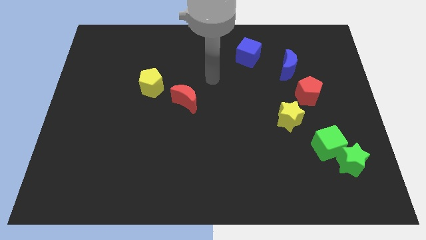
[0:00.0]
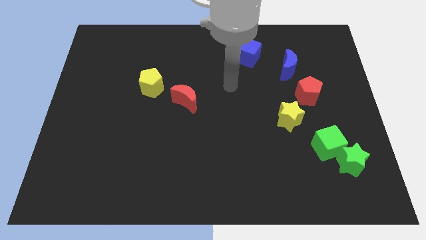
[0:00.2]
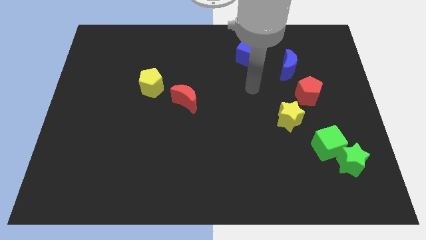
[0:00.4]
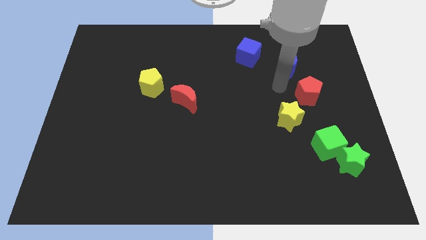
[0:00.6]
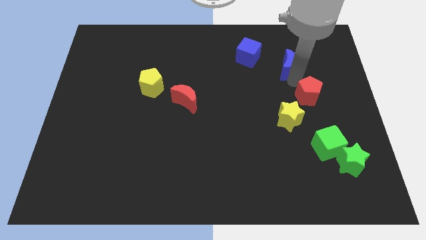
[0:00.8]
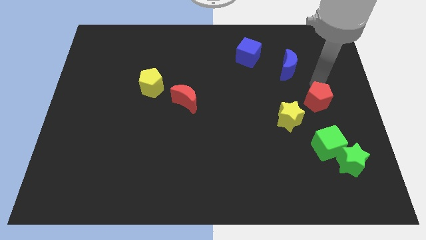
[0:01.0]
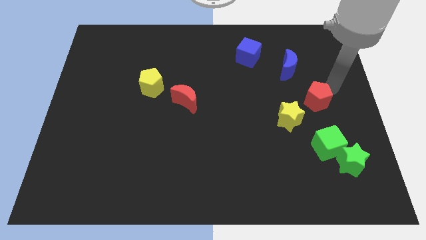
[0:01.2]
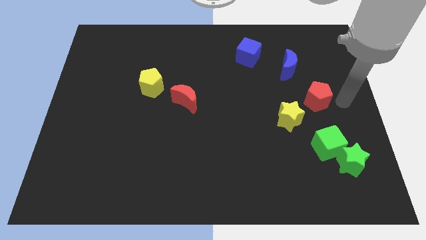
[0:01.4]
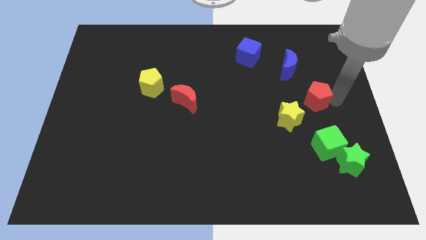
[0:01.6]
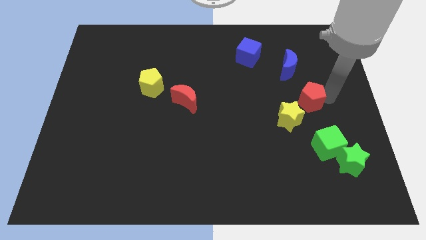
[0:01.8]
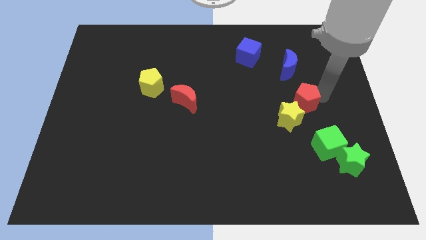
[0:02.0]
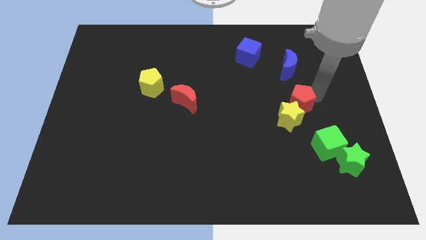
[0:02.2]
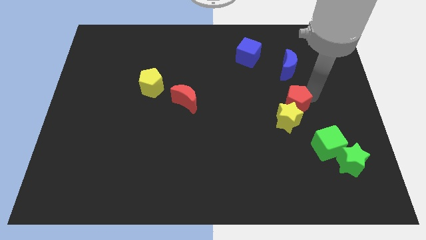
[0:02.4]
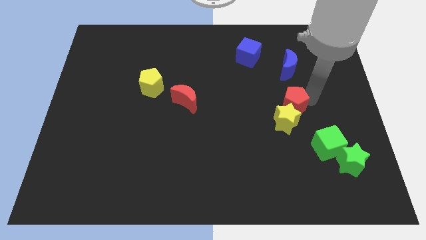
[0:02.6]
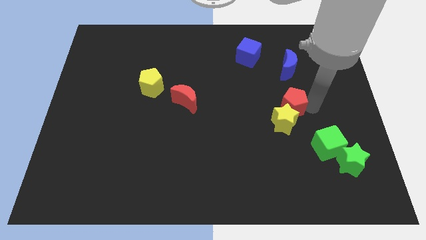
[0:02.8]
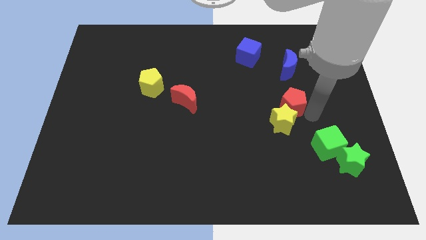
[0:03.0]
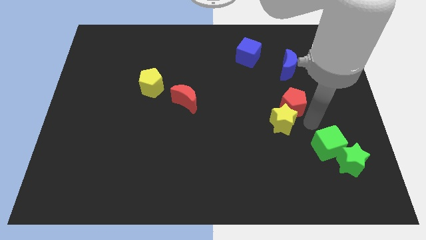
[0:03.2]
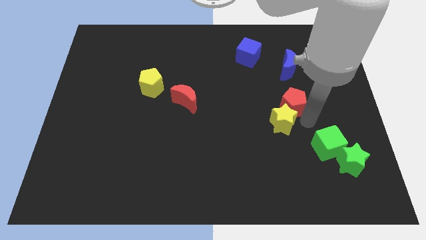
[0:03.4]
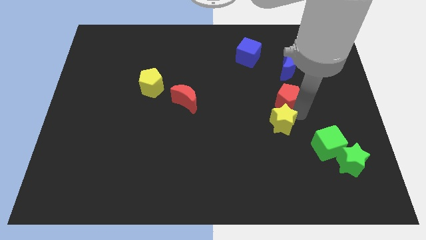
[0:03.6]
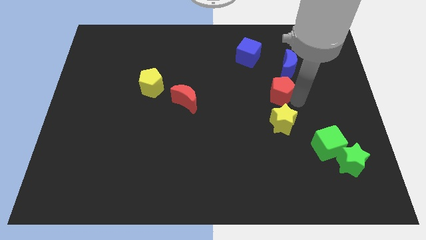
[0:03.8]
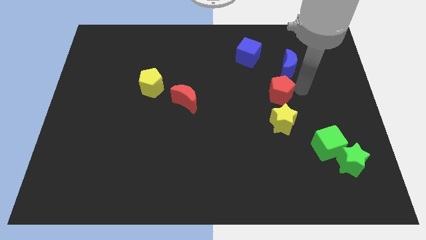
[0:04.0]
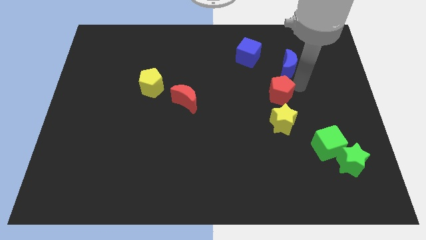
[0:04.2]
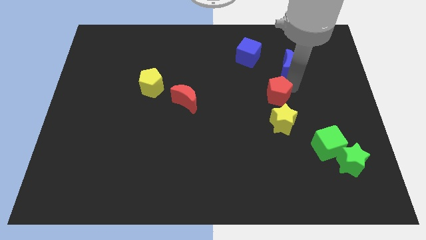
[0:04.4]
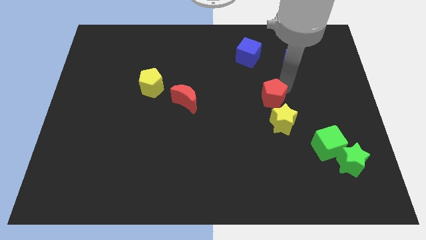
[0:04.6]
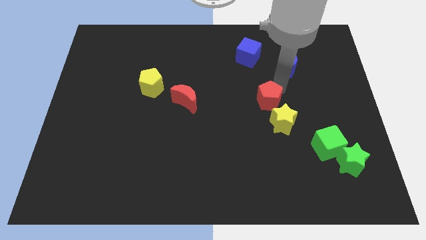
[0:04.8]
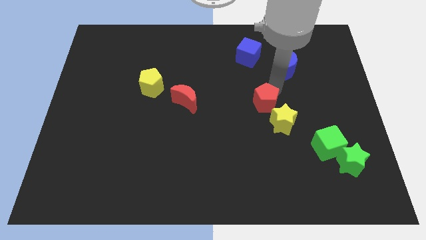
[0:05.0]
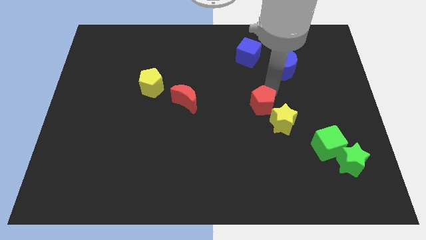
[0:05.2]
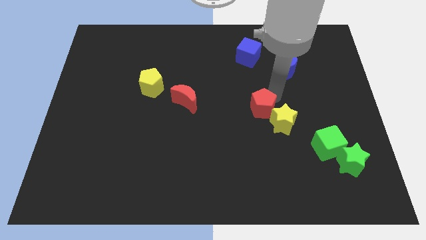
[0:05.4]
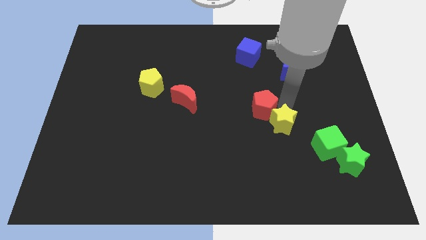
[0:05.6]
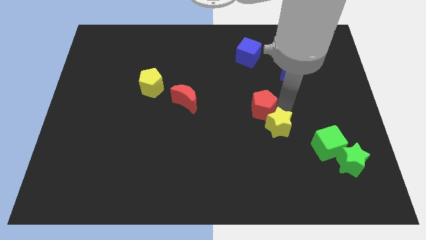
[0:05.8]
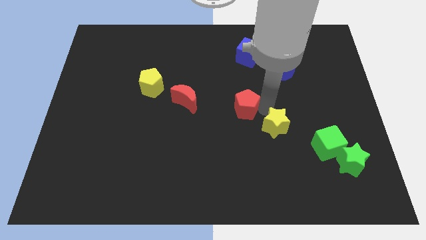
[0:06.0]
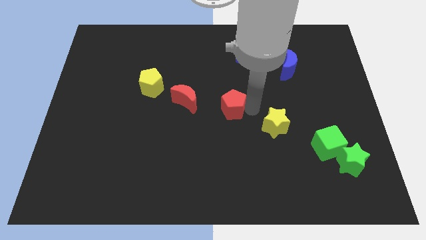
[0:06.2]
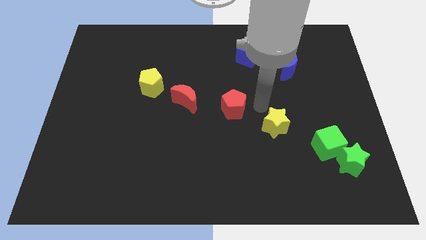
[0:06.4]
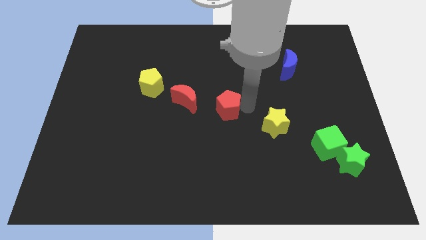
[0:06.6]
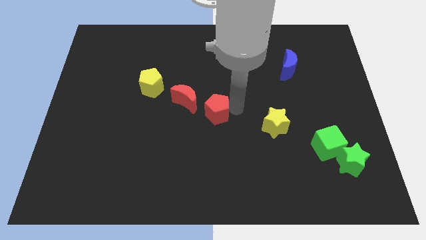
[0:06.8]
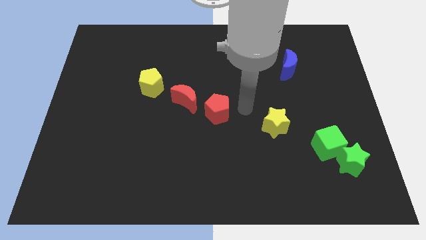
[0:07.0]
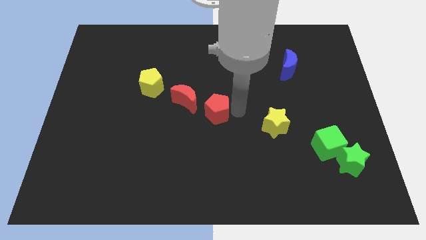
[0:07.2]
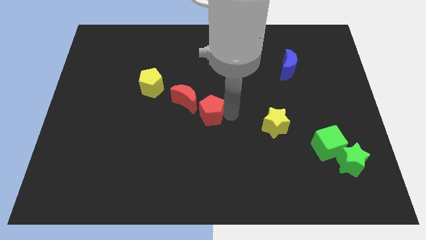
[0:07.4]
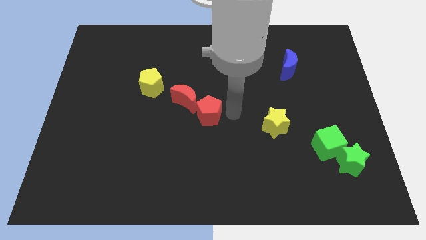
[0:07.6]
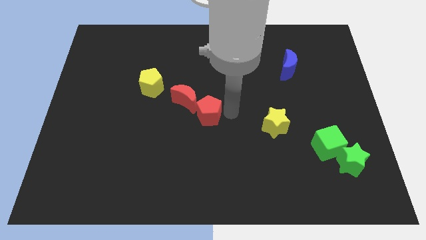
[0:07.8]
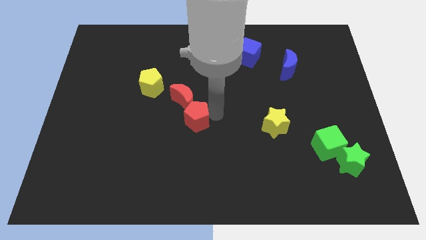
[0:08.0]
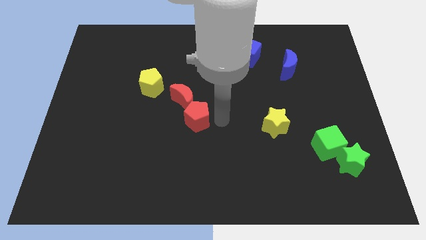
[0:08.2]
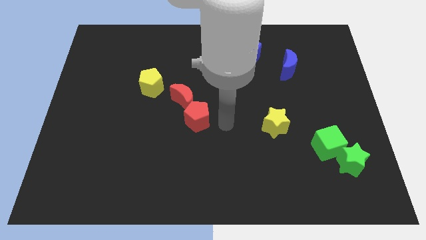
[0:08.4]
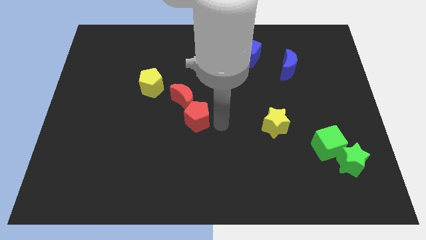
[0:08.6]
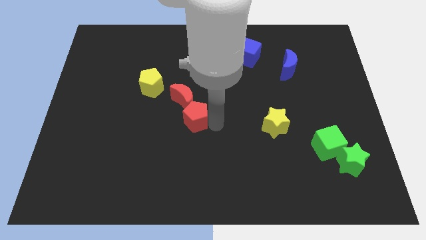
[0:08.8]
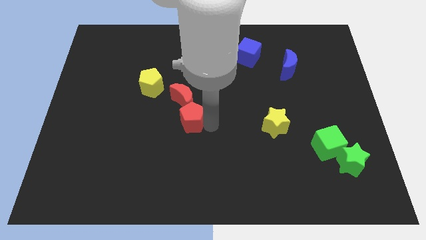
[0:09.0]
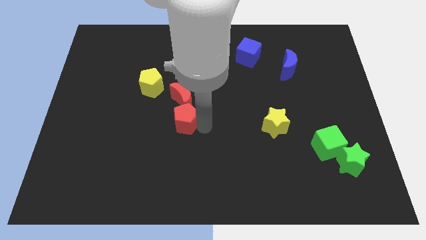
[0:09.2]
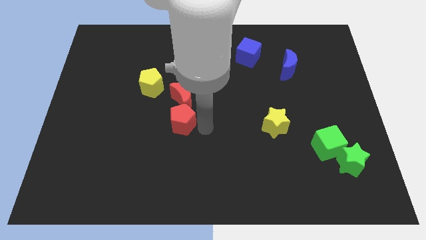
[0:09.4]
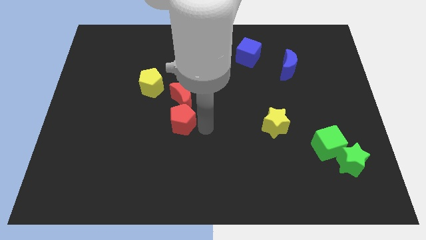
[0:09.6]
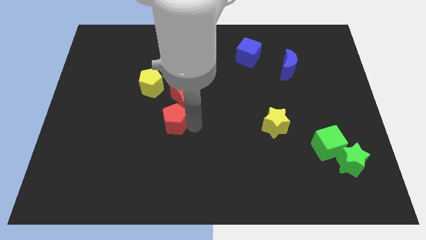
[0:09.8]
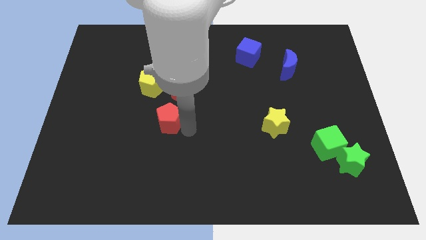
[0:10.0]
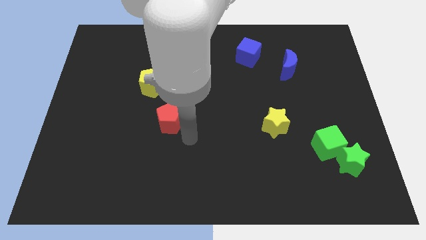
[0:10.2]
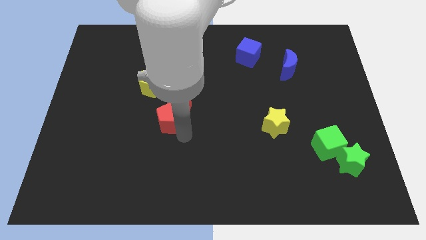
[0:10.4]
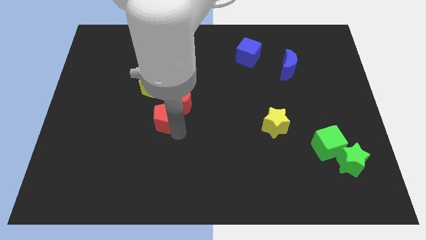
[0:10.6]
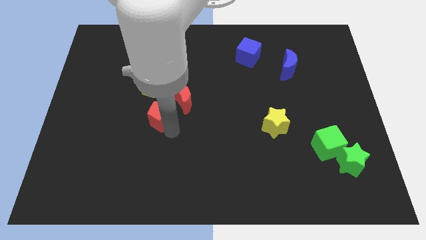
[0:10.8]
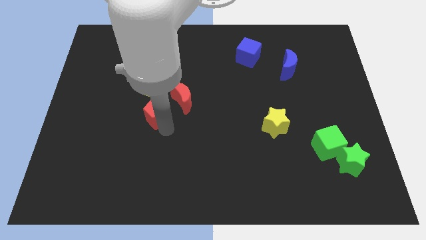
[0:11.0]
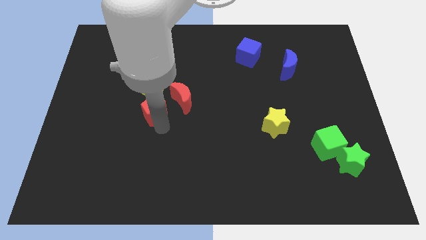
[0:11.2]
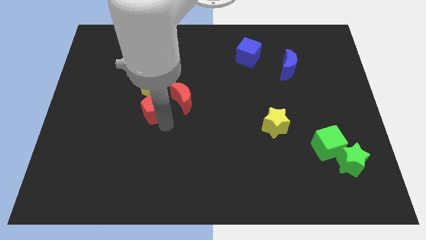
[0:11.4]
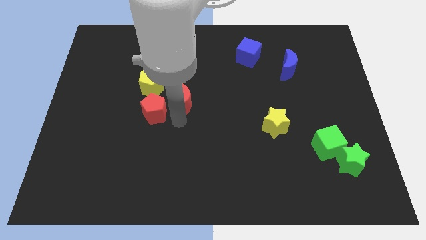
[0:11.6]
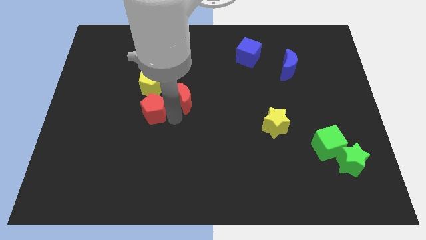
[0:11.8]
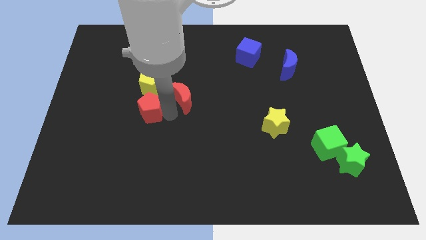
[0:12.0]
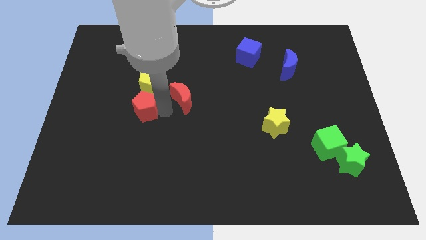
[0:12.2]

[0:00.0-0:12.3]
slide the red pentagon diagonally down and to the left of the yellow pentagon

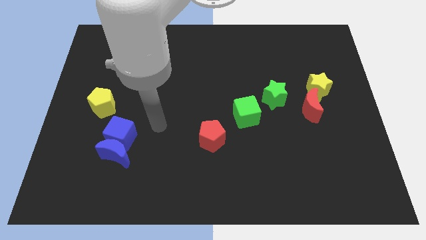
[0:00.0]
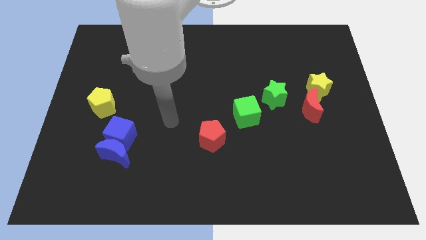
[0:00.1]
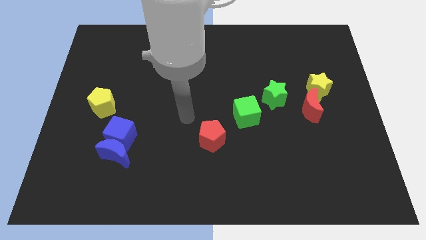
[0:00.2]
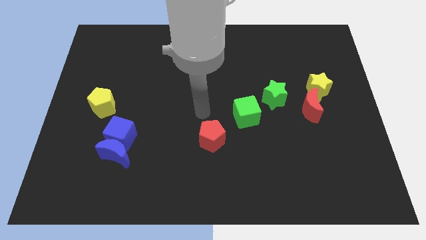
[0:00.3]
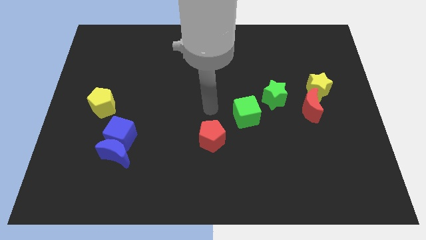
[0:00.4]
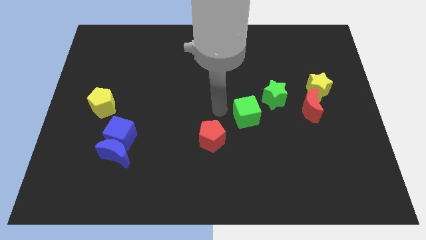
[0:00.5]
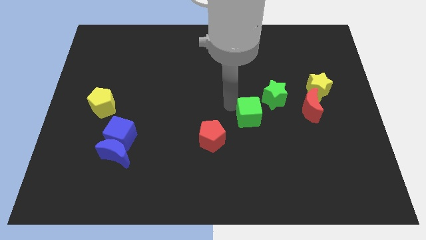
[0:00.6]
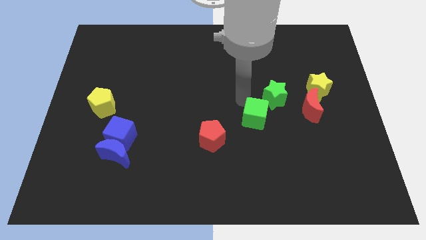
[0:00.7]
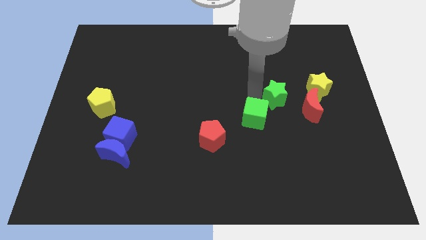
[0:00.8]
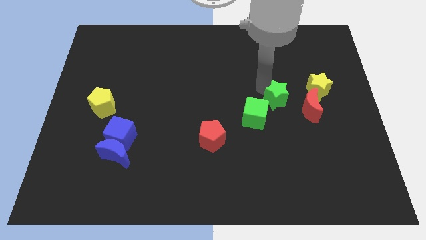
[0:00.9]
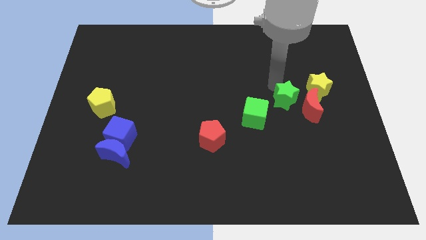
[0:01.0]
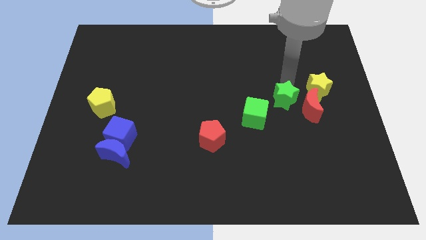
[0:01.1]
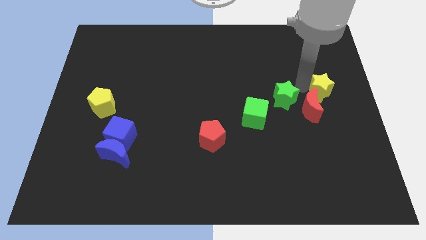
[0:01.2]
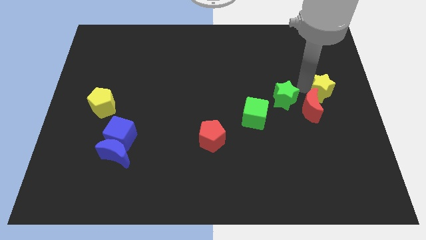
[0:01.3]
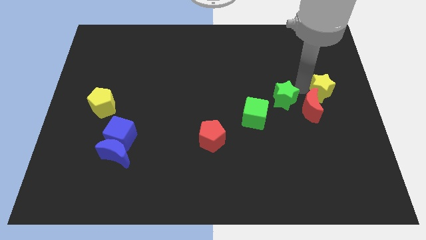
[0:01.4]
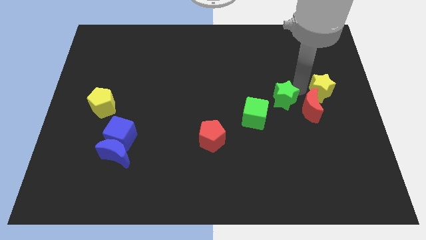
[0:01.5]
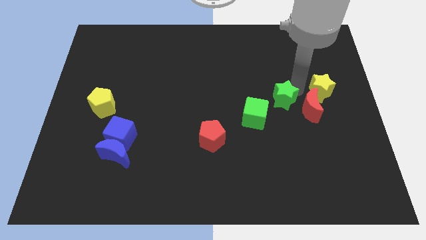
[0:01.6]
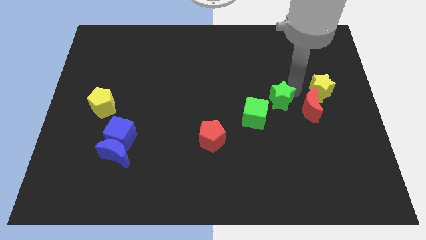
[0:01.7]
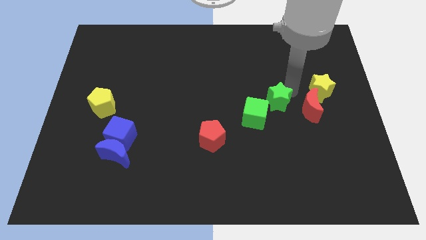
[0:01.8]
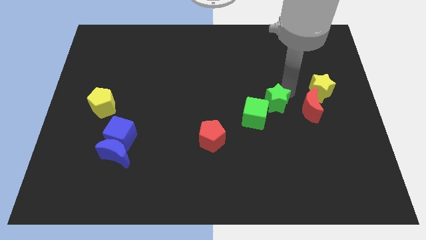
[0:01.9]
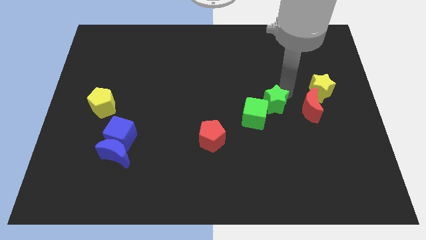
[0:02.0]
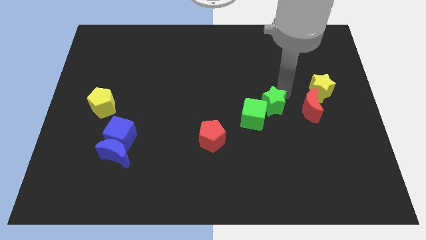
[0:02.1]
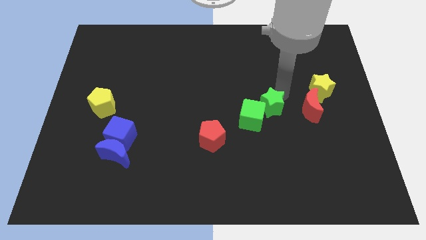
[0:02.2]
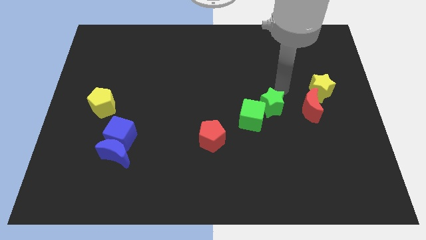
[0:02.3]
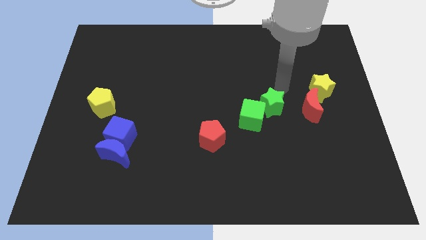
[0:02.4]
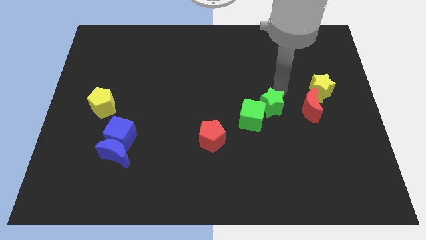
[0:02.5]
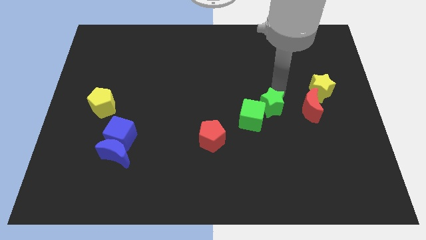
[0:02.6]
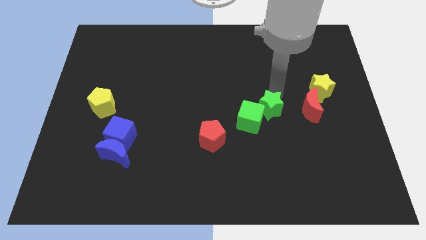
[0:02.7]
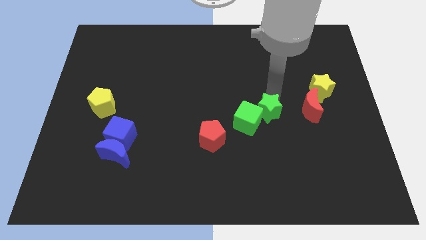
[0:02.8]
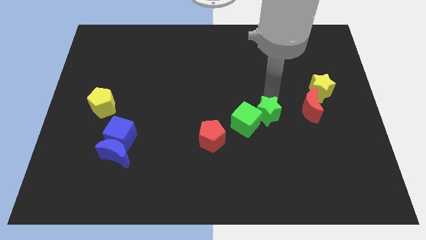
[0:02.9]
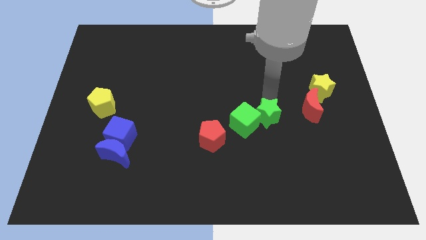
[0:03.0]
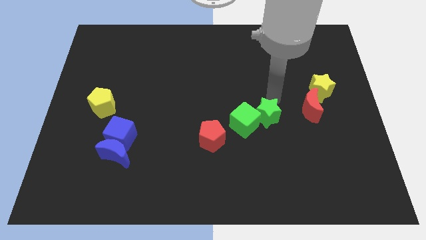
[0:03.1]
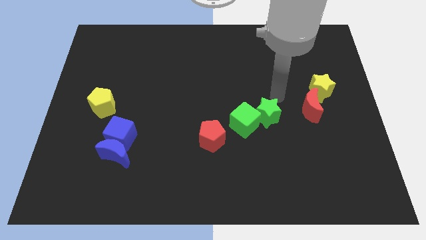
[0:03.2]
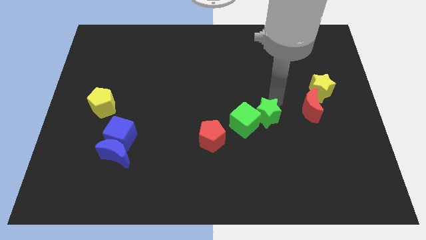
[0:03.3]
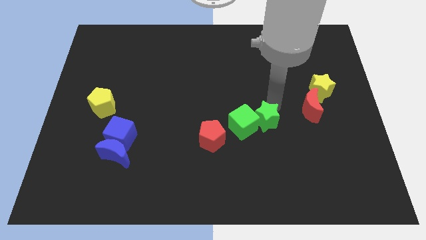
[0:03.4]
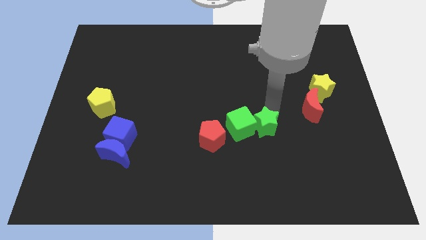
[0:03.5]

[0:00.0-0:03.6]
move the green star to the right of the red pentagon
